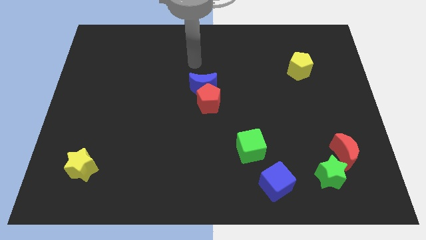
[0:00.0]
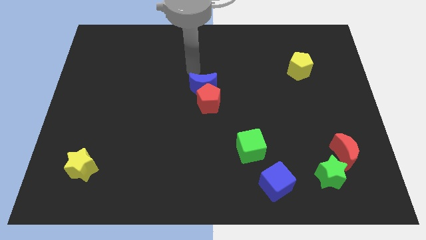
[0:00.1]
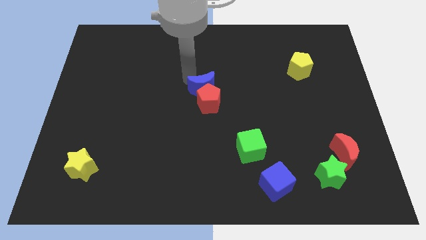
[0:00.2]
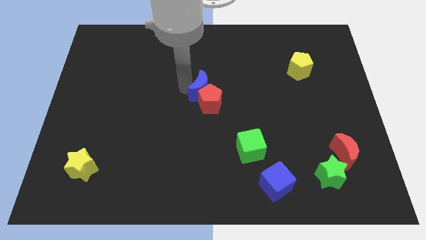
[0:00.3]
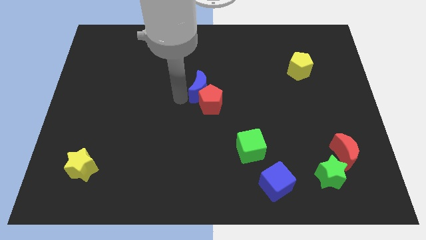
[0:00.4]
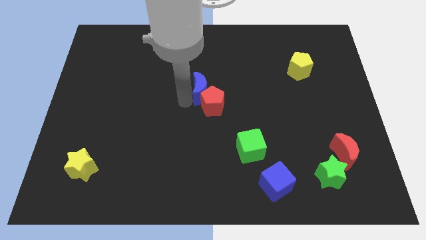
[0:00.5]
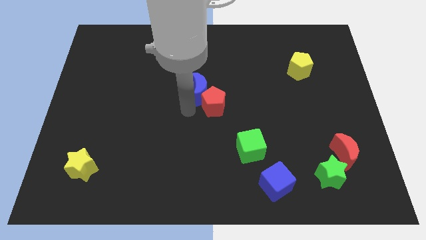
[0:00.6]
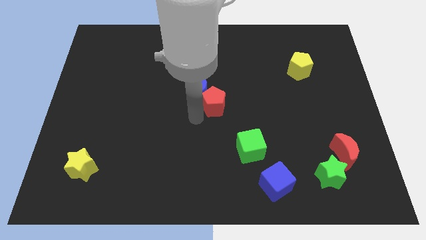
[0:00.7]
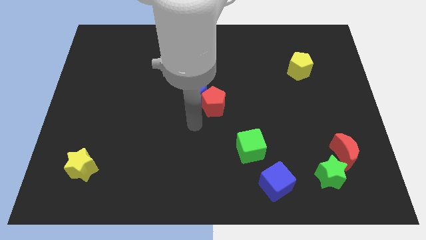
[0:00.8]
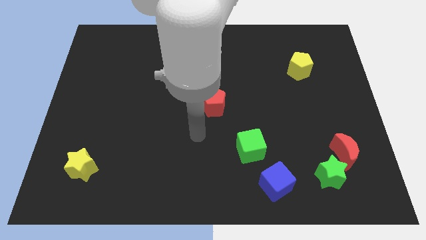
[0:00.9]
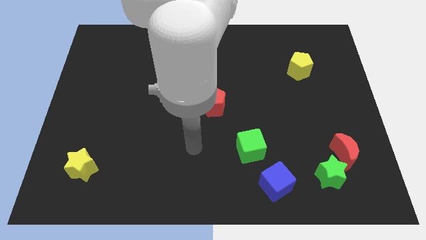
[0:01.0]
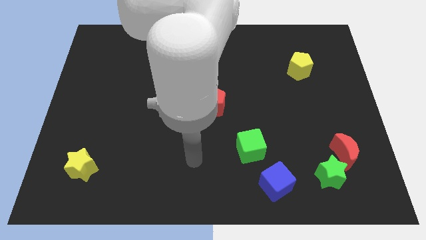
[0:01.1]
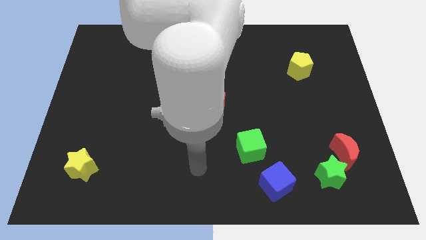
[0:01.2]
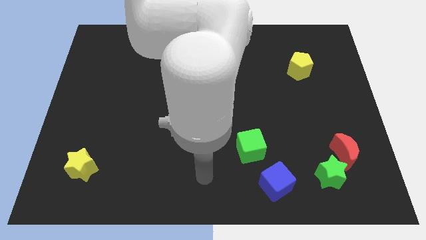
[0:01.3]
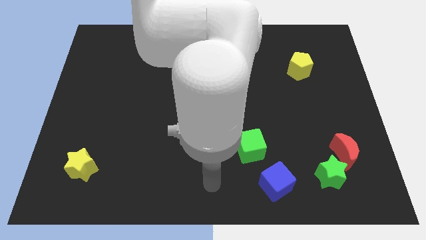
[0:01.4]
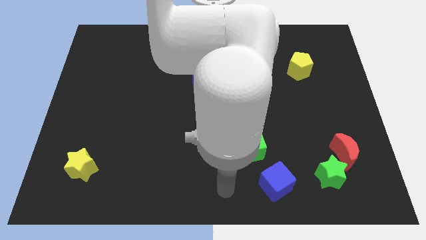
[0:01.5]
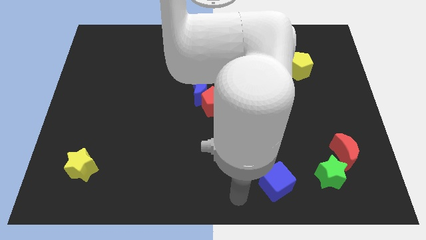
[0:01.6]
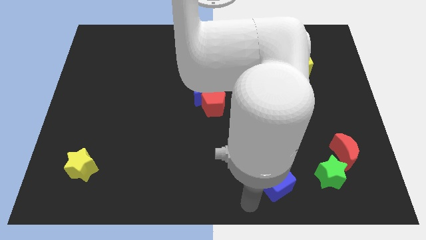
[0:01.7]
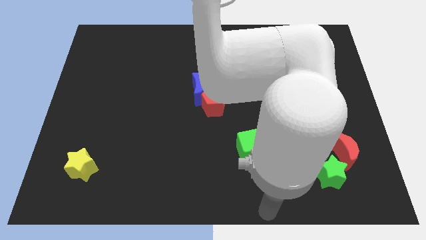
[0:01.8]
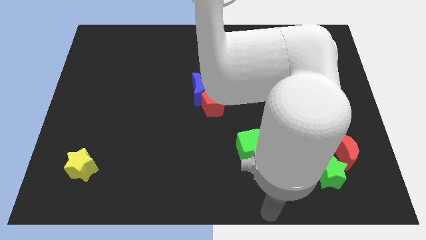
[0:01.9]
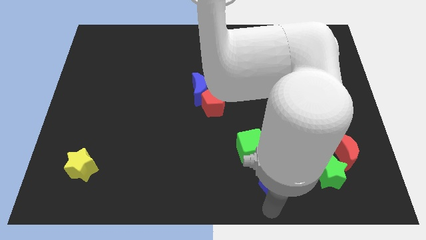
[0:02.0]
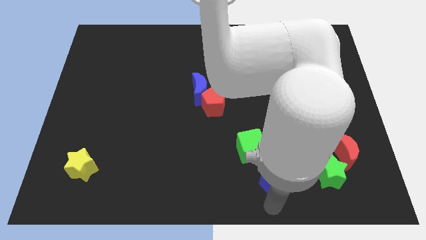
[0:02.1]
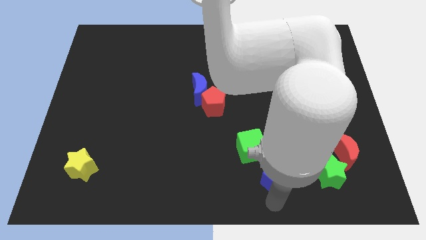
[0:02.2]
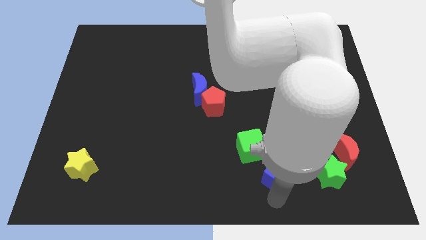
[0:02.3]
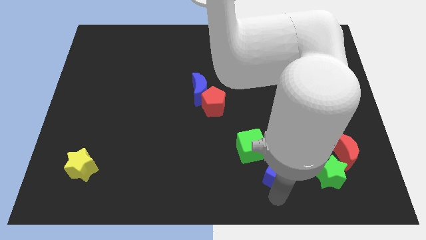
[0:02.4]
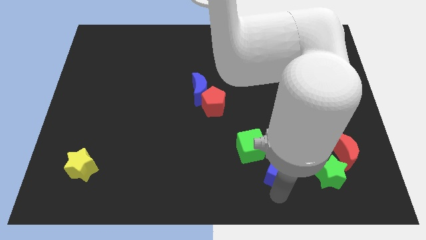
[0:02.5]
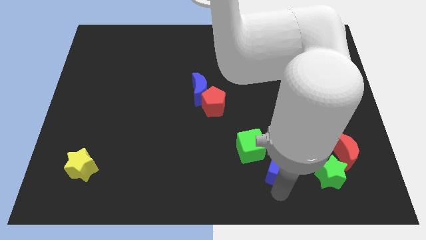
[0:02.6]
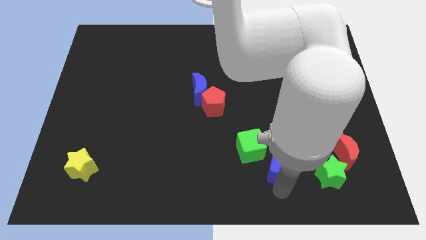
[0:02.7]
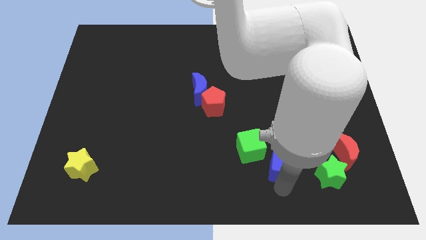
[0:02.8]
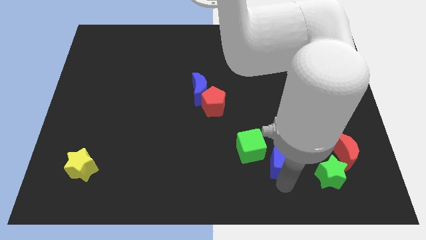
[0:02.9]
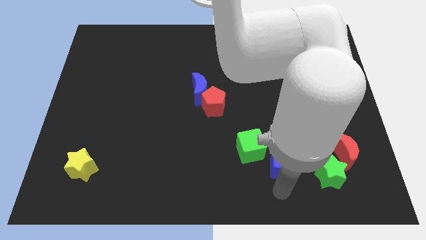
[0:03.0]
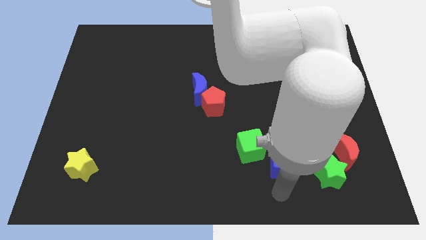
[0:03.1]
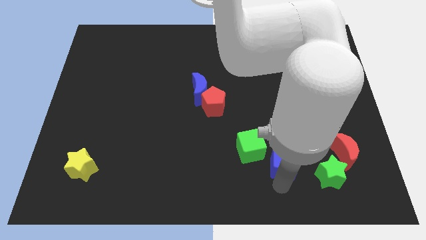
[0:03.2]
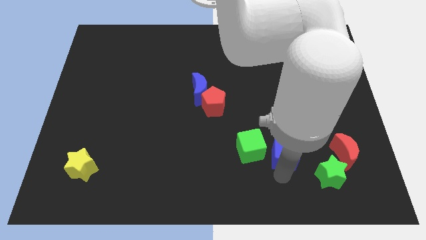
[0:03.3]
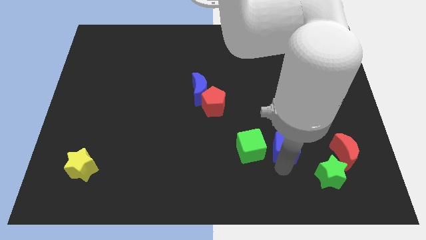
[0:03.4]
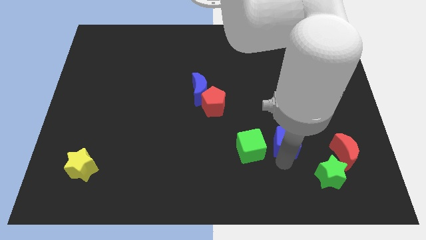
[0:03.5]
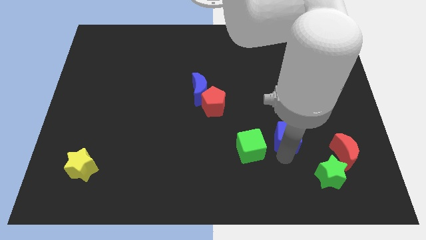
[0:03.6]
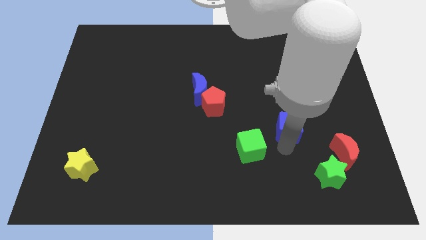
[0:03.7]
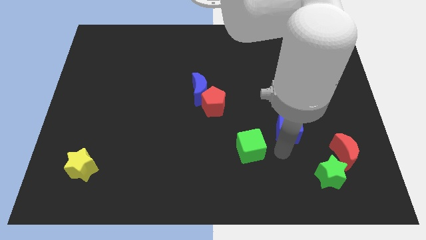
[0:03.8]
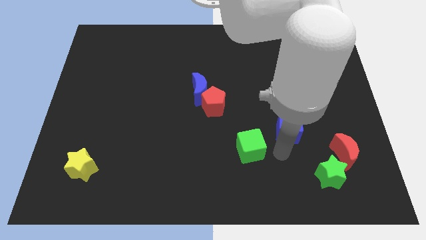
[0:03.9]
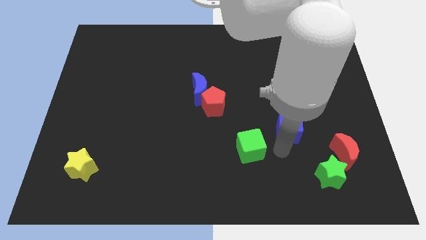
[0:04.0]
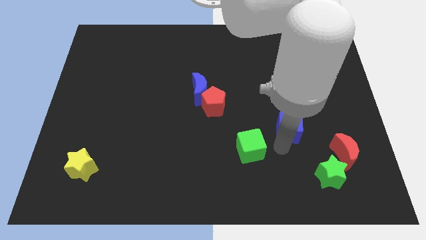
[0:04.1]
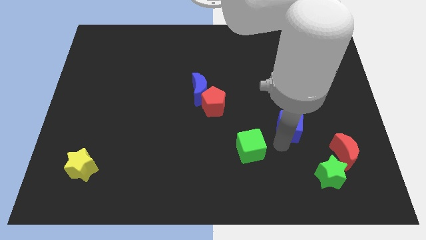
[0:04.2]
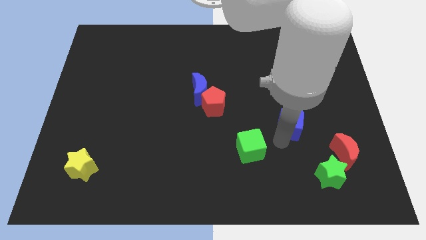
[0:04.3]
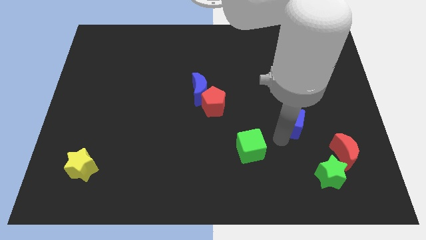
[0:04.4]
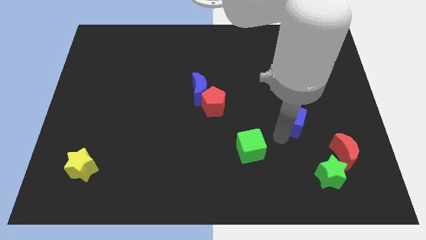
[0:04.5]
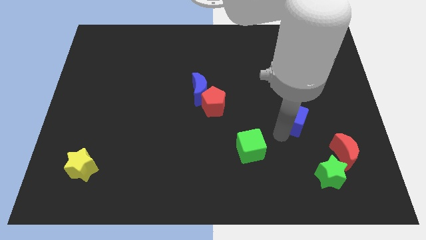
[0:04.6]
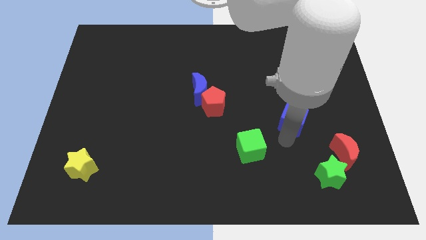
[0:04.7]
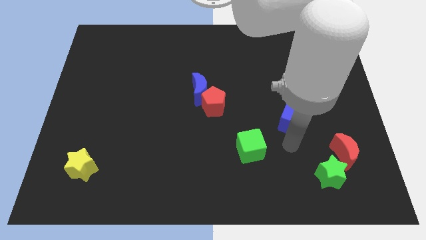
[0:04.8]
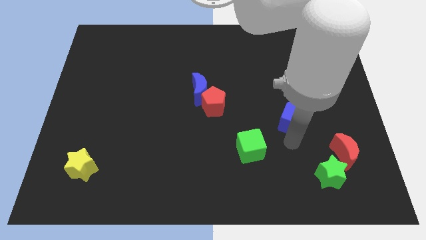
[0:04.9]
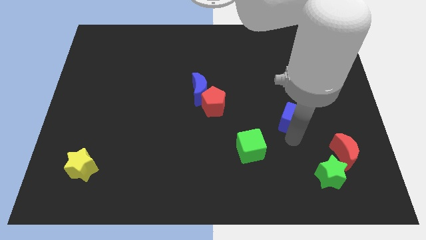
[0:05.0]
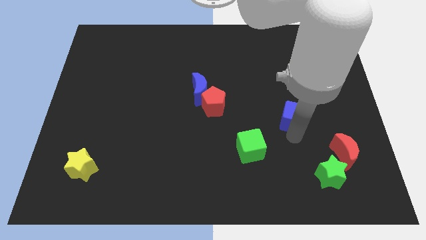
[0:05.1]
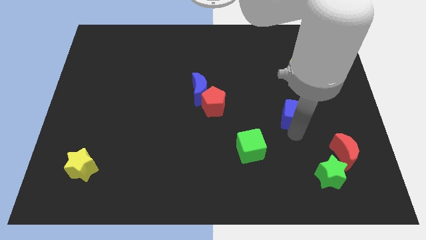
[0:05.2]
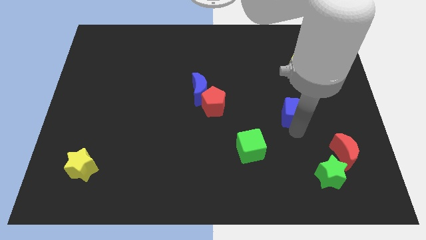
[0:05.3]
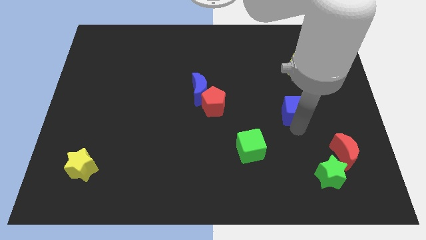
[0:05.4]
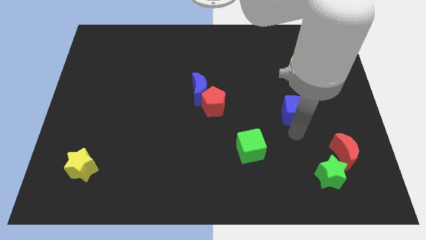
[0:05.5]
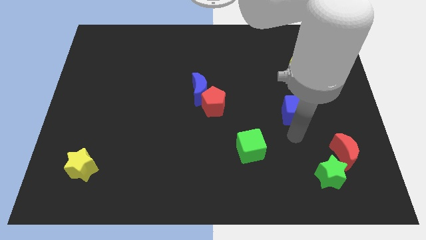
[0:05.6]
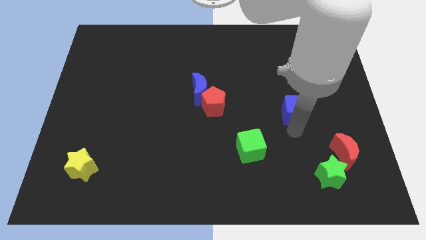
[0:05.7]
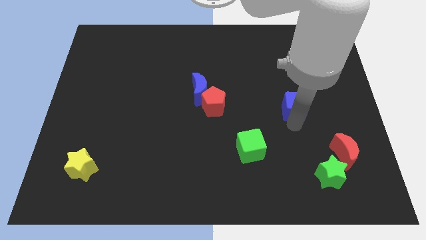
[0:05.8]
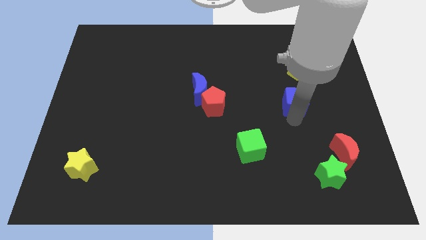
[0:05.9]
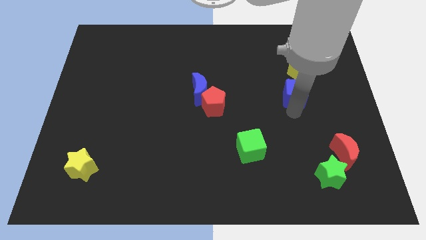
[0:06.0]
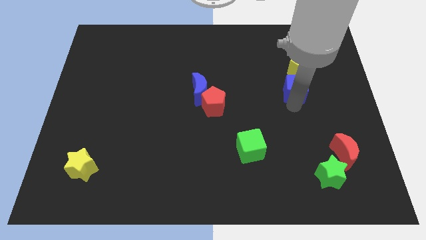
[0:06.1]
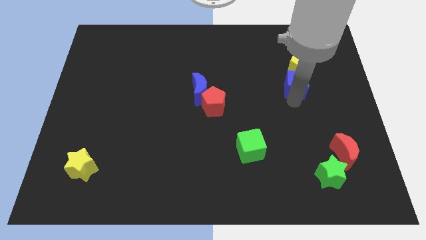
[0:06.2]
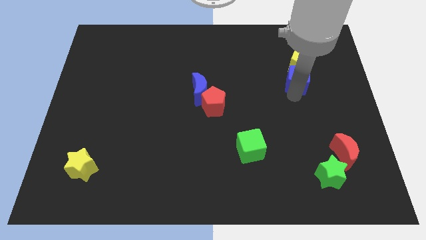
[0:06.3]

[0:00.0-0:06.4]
slide the blue cube close to the yellow pentagon
